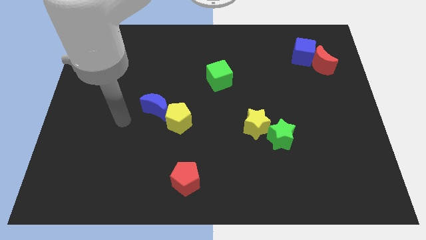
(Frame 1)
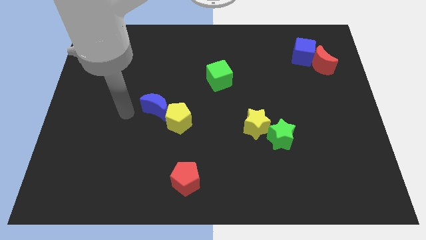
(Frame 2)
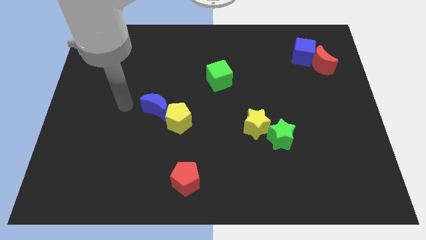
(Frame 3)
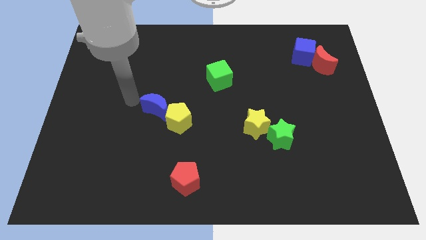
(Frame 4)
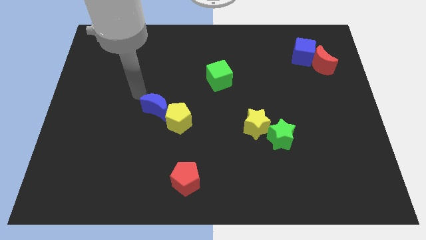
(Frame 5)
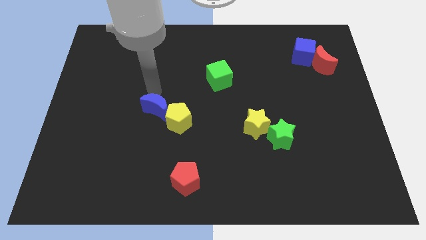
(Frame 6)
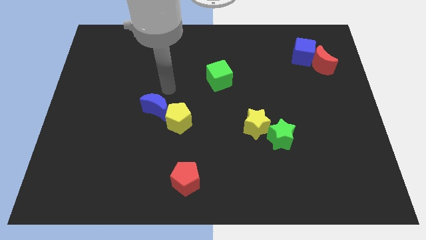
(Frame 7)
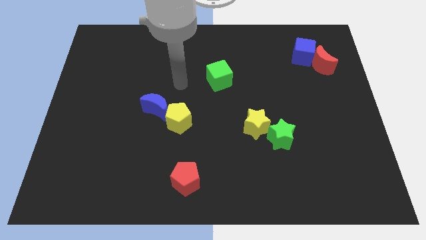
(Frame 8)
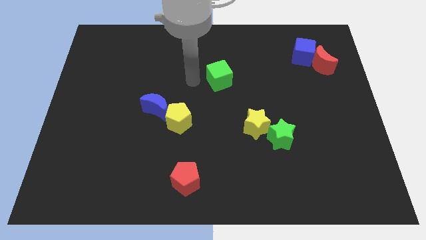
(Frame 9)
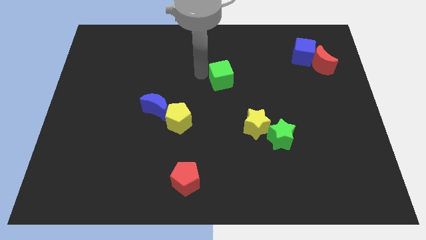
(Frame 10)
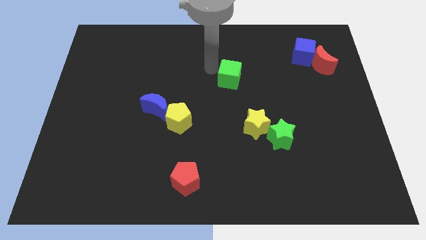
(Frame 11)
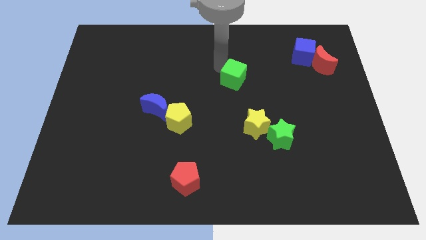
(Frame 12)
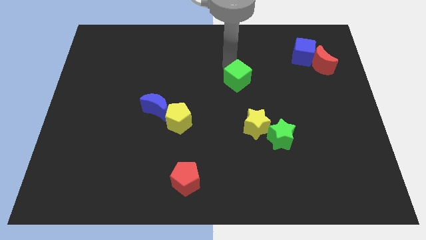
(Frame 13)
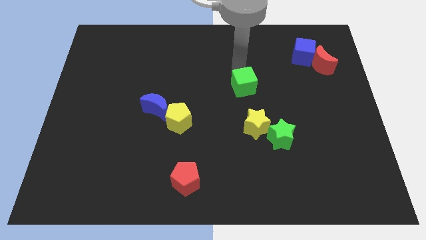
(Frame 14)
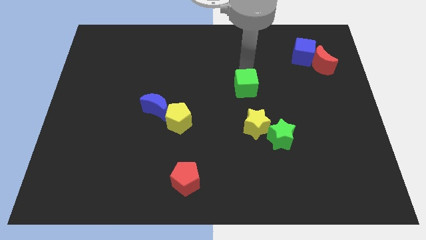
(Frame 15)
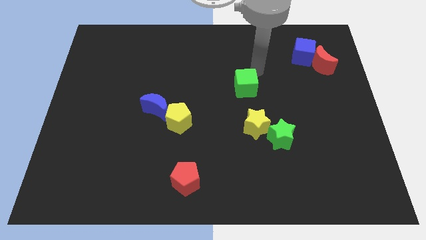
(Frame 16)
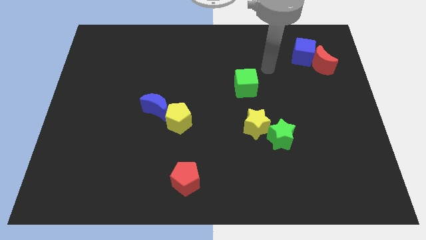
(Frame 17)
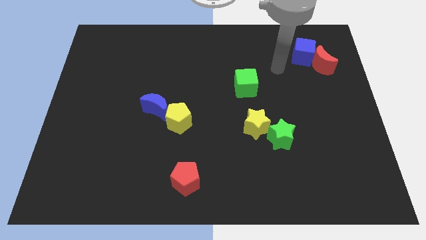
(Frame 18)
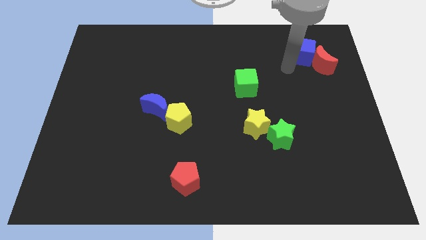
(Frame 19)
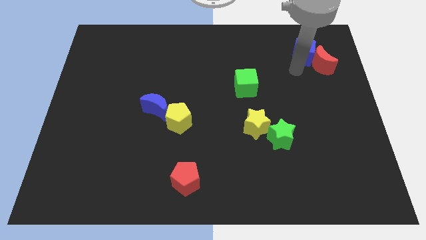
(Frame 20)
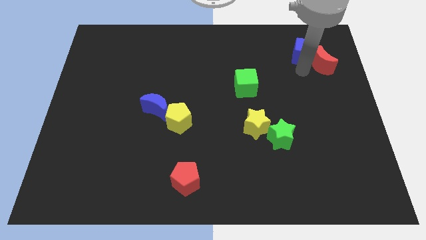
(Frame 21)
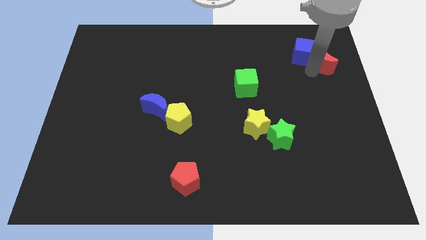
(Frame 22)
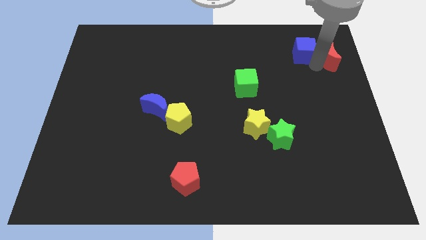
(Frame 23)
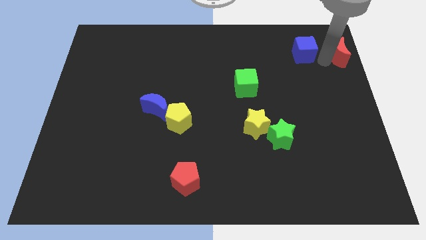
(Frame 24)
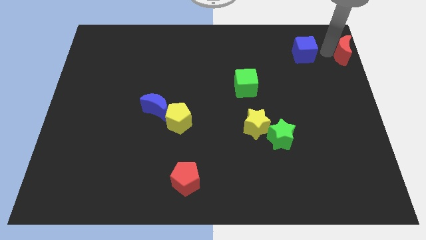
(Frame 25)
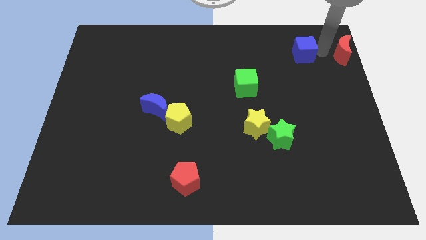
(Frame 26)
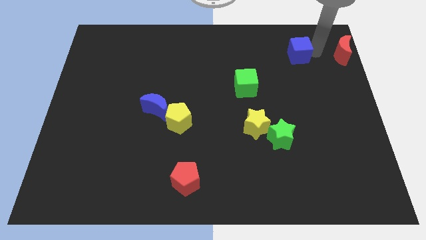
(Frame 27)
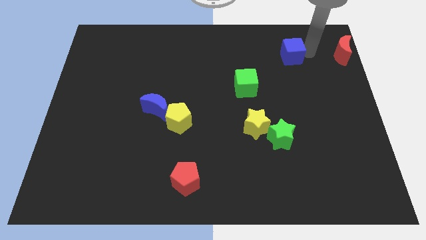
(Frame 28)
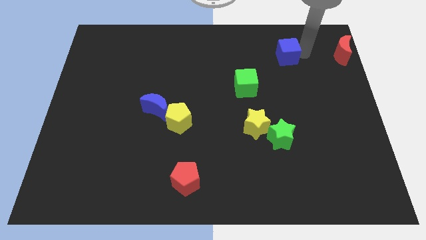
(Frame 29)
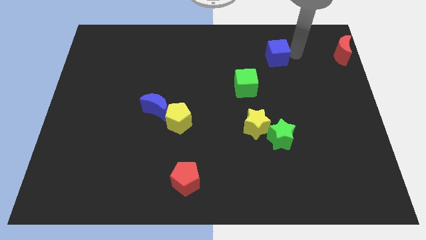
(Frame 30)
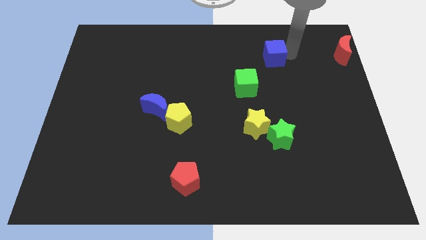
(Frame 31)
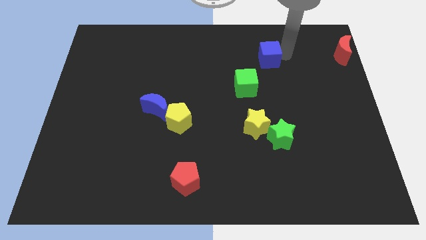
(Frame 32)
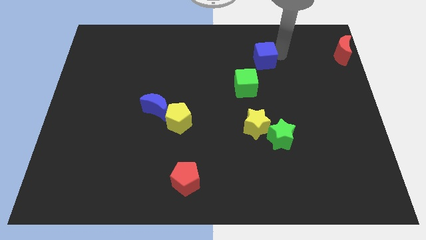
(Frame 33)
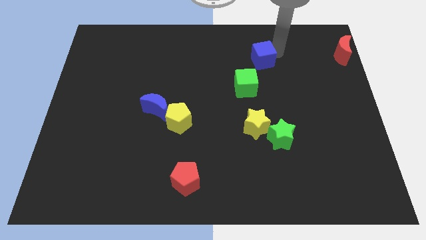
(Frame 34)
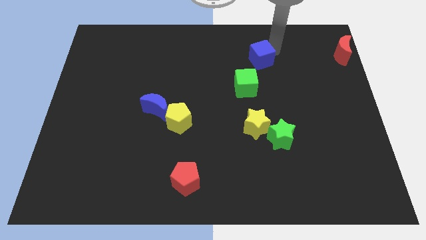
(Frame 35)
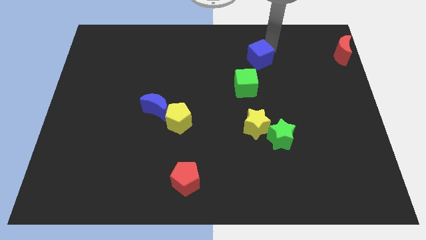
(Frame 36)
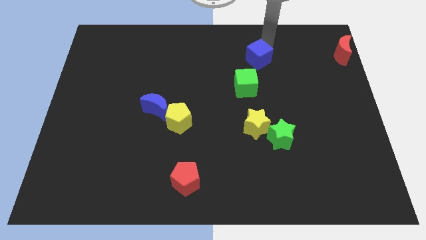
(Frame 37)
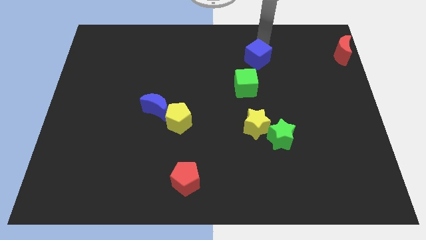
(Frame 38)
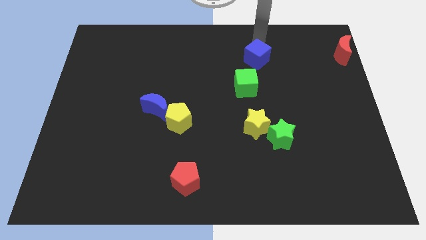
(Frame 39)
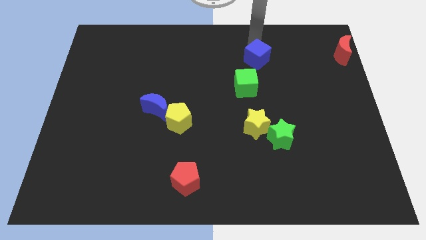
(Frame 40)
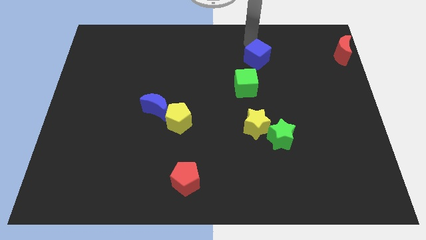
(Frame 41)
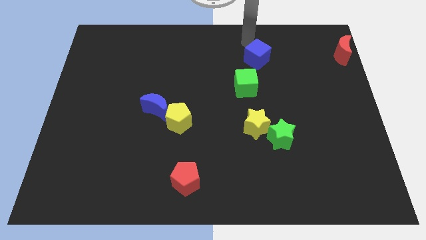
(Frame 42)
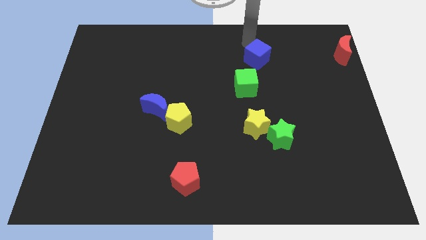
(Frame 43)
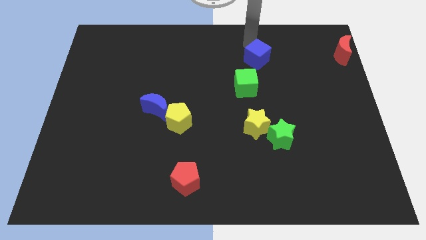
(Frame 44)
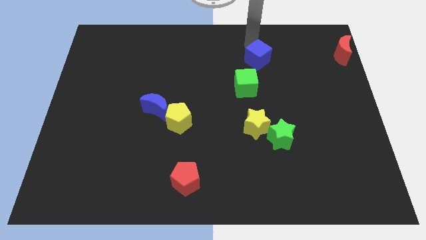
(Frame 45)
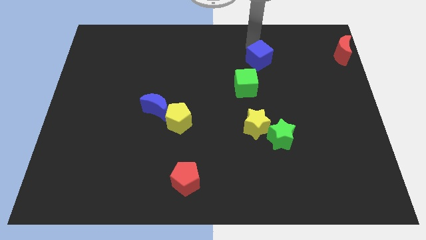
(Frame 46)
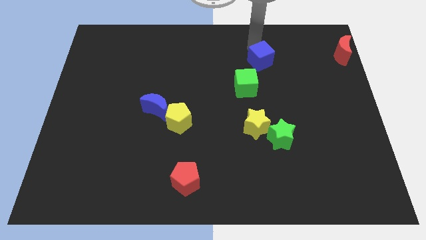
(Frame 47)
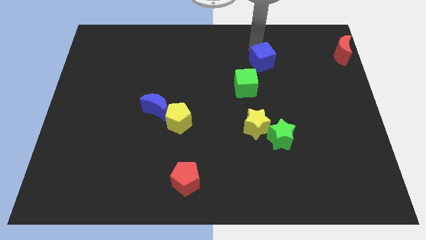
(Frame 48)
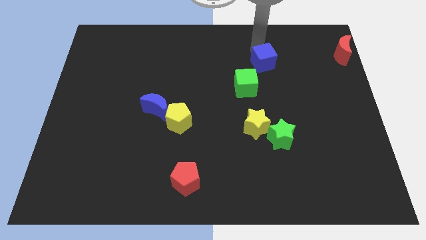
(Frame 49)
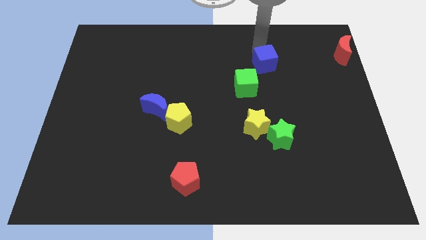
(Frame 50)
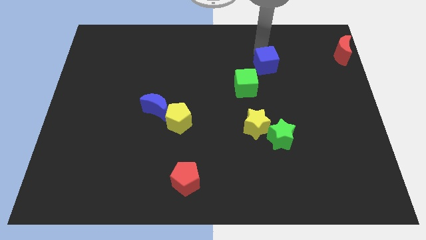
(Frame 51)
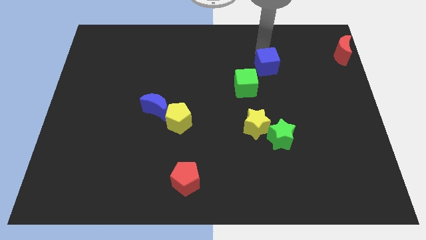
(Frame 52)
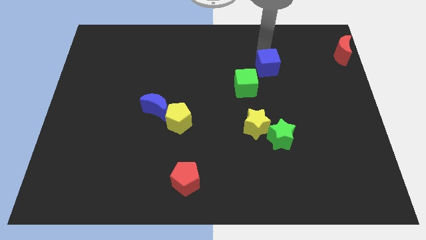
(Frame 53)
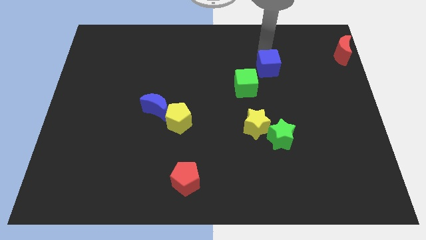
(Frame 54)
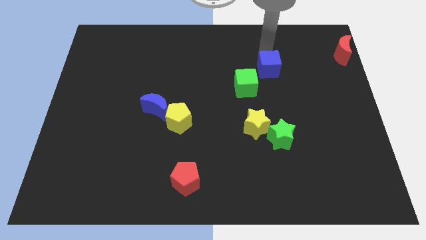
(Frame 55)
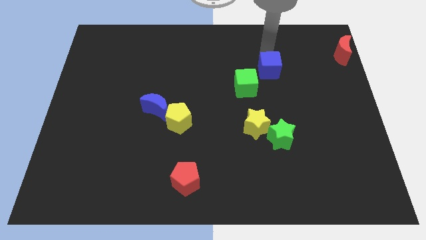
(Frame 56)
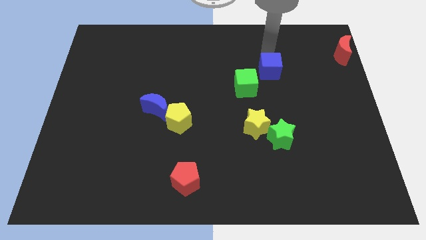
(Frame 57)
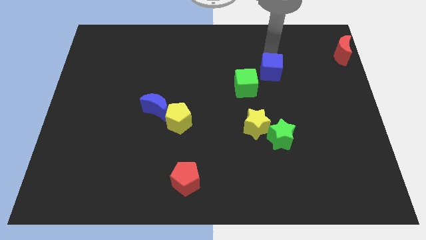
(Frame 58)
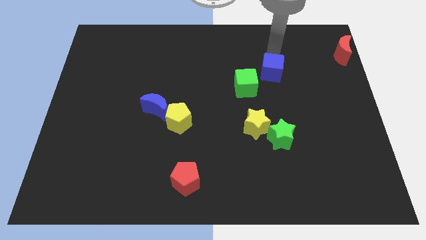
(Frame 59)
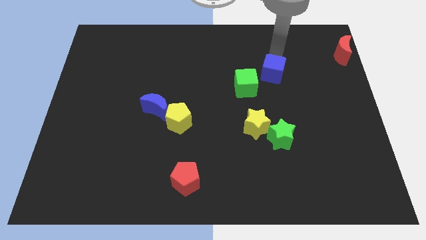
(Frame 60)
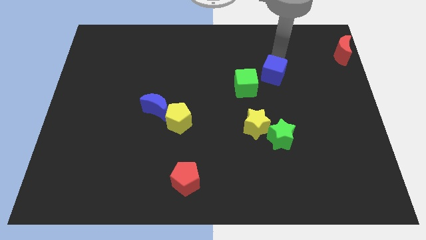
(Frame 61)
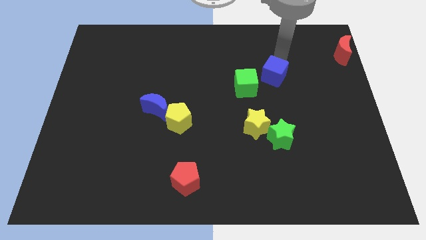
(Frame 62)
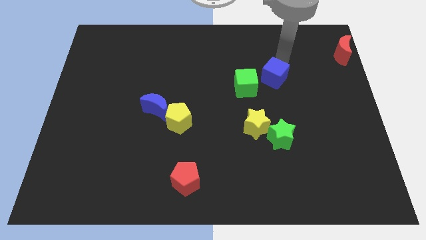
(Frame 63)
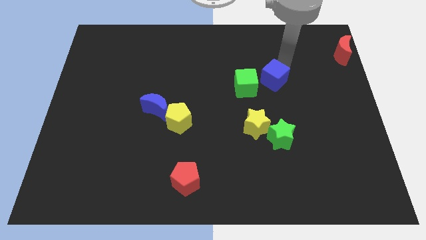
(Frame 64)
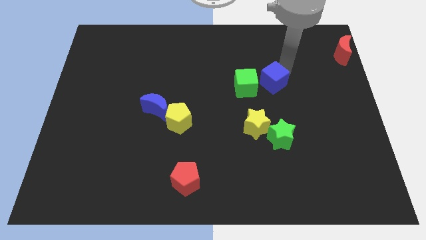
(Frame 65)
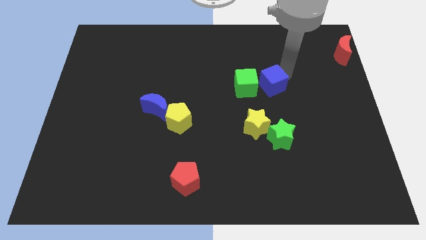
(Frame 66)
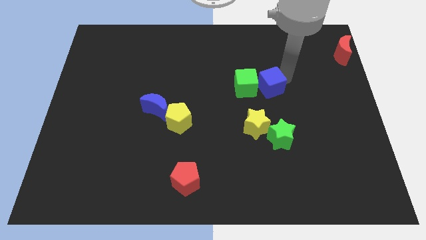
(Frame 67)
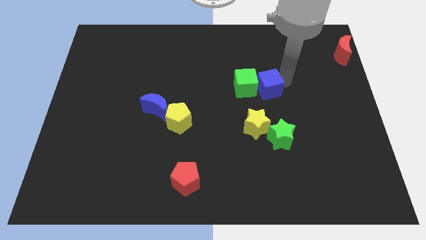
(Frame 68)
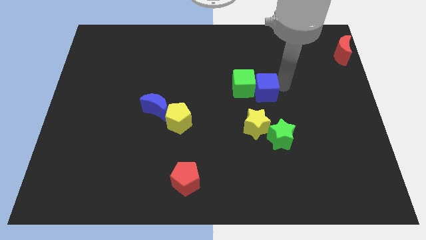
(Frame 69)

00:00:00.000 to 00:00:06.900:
slide the blue cube to the top right of the green cube
